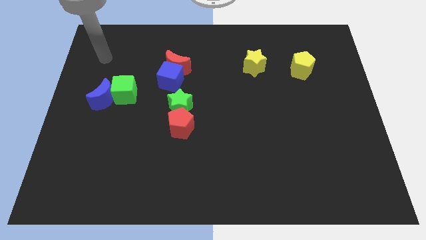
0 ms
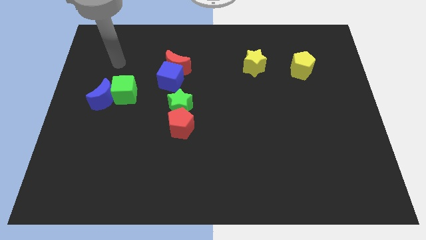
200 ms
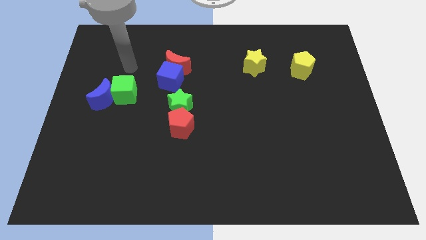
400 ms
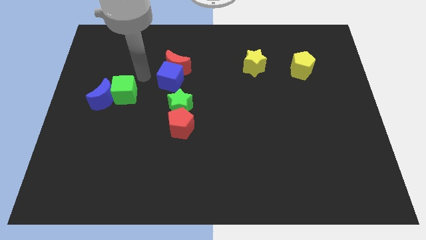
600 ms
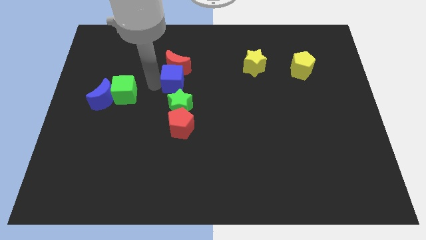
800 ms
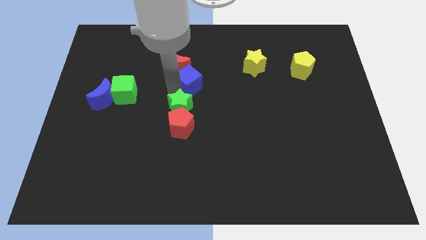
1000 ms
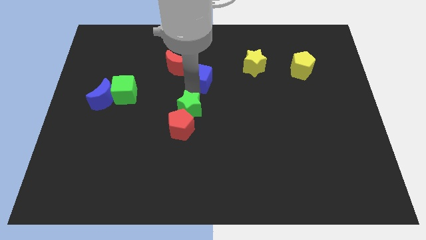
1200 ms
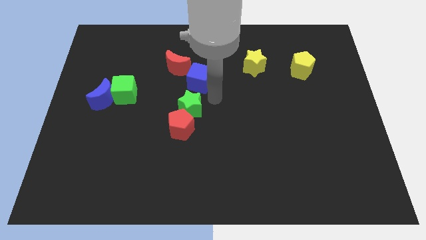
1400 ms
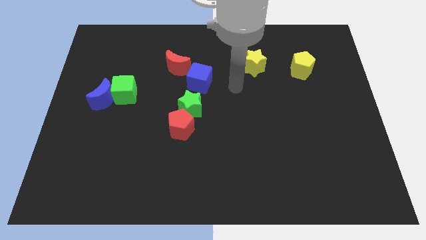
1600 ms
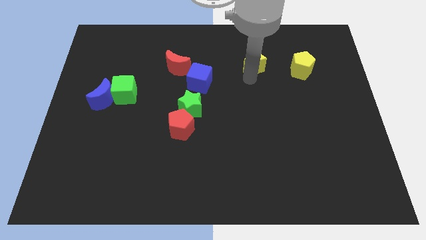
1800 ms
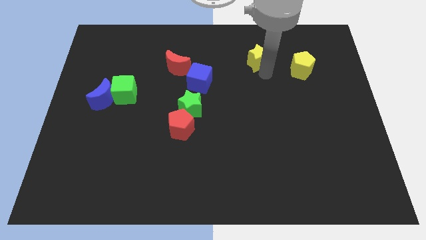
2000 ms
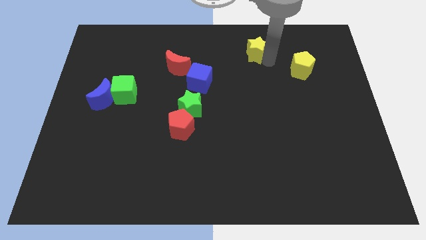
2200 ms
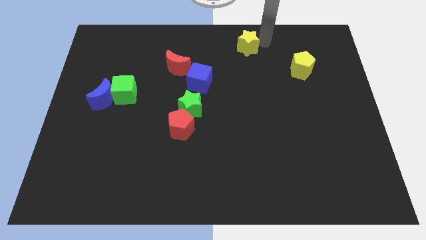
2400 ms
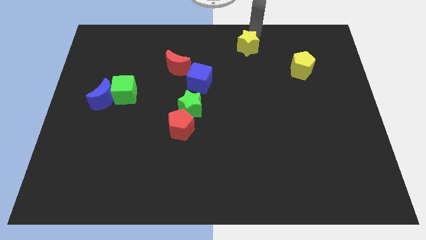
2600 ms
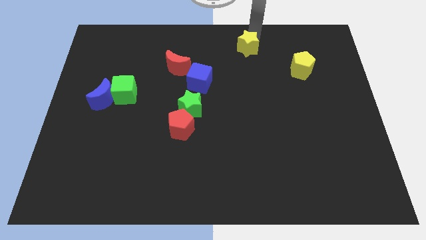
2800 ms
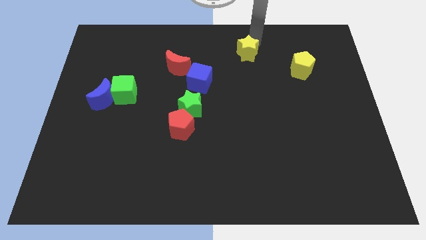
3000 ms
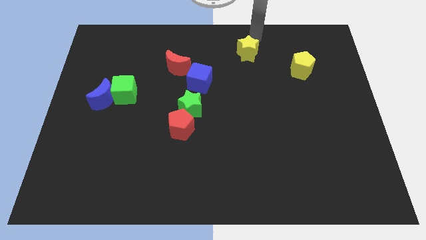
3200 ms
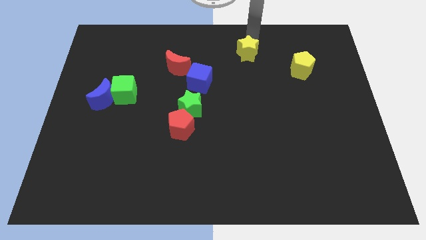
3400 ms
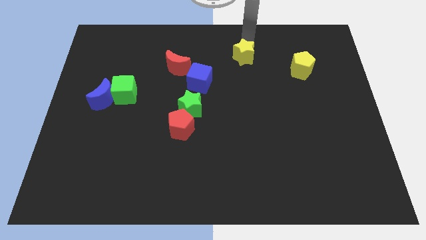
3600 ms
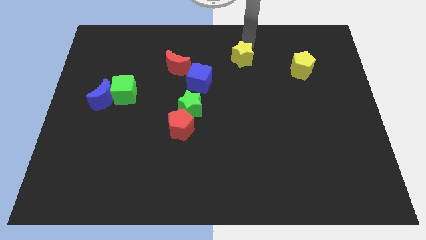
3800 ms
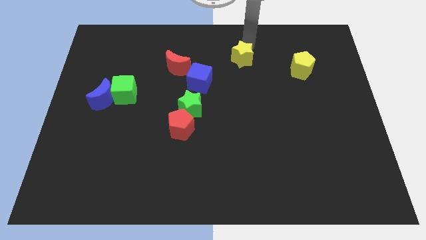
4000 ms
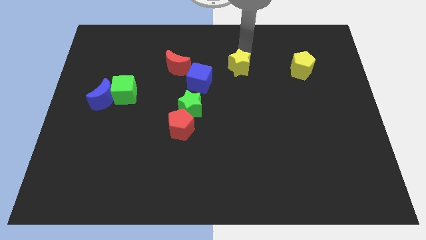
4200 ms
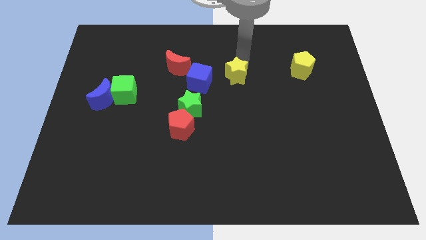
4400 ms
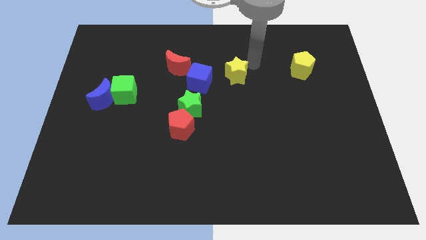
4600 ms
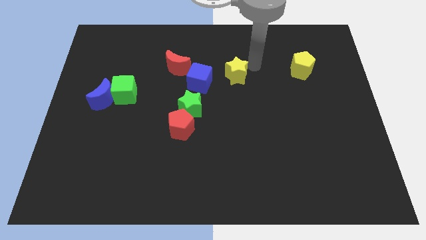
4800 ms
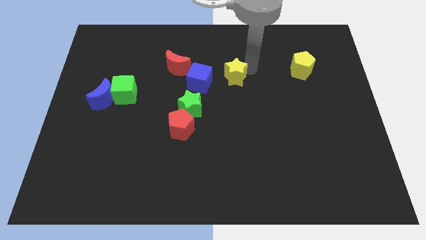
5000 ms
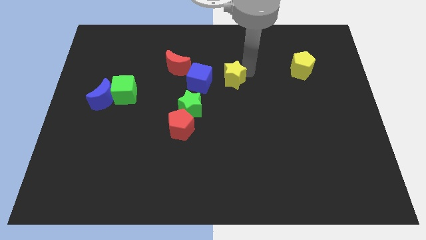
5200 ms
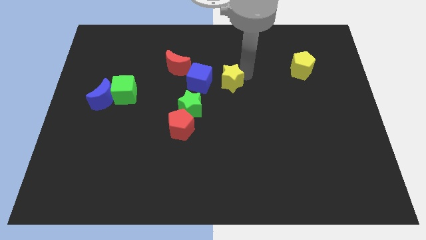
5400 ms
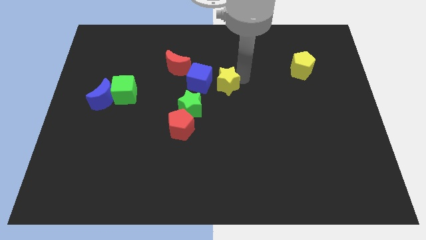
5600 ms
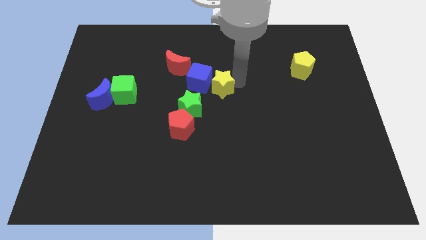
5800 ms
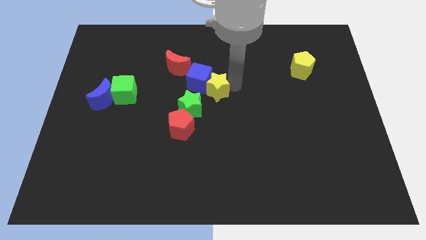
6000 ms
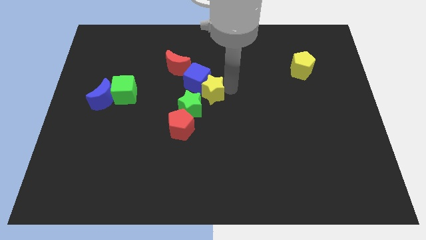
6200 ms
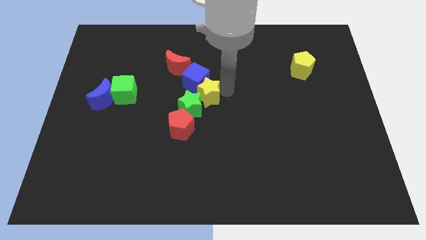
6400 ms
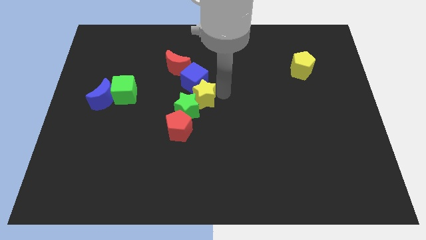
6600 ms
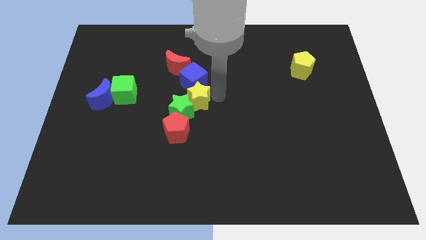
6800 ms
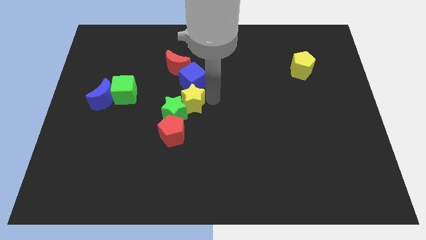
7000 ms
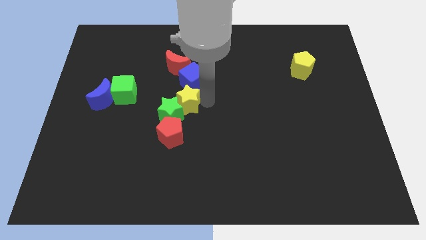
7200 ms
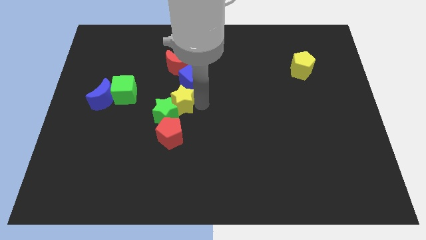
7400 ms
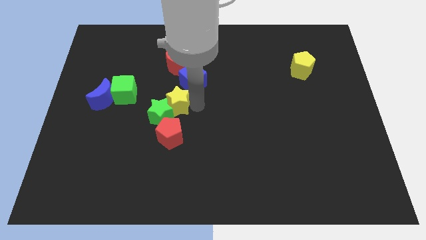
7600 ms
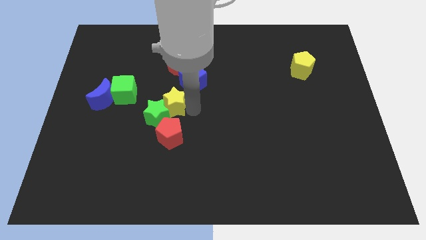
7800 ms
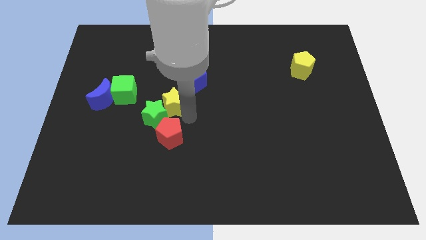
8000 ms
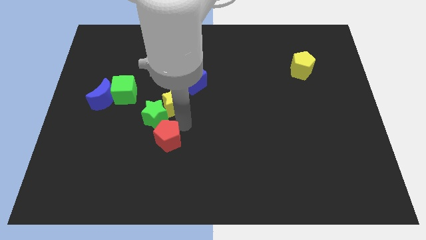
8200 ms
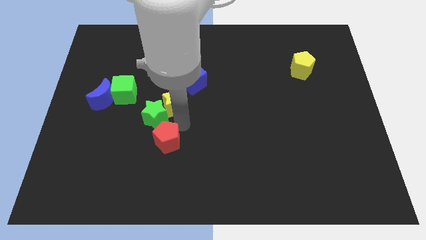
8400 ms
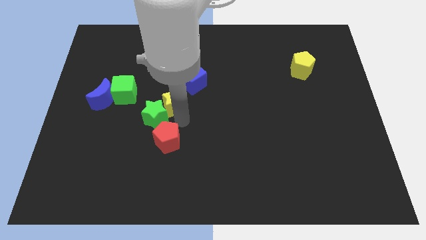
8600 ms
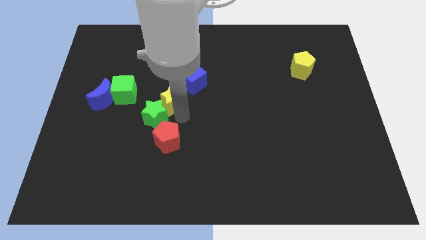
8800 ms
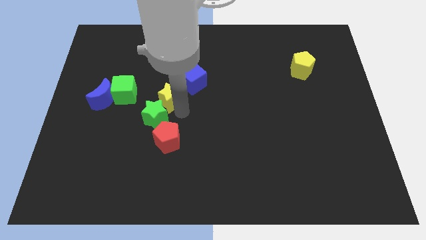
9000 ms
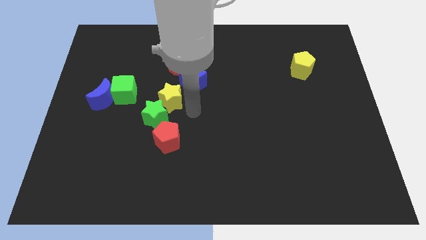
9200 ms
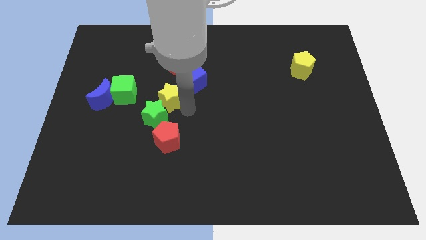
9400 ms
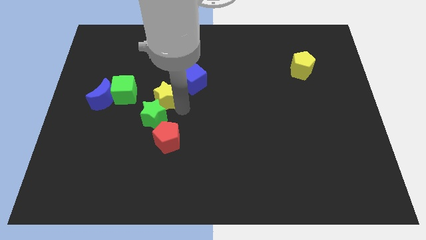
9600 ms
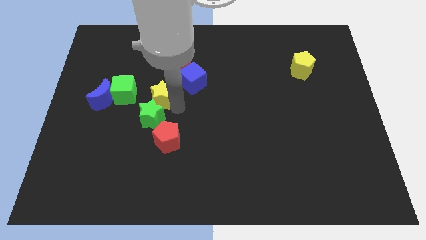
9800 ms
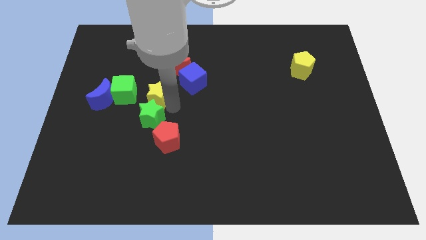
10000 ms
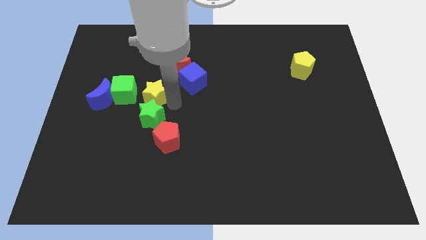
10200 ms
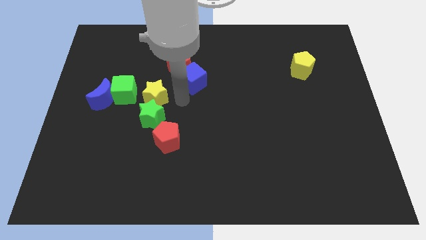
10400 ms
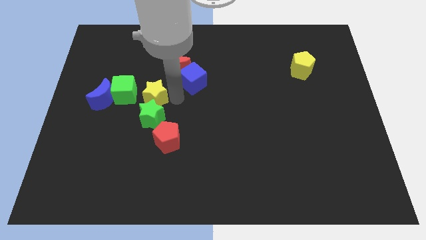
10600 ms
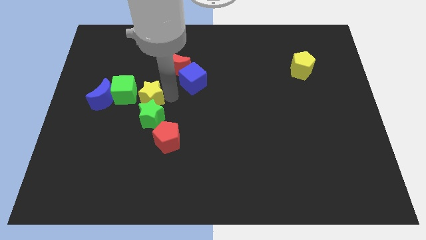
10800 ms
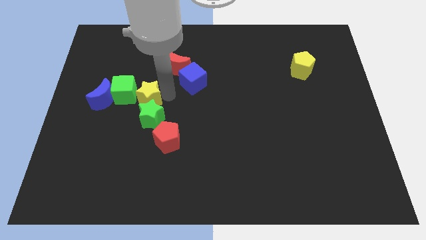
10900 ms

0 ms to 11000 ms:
slide the yellow star close to the green cube

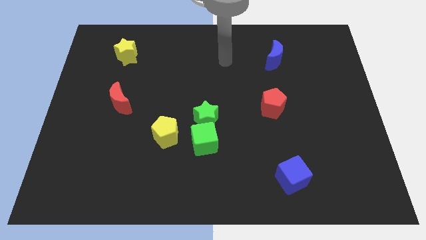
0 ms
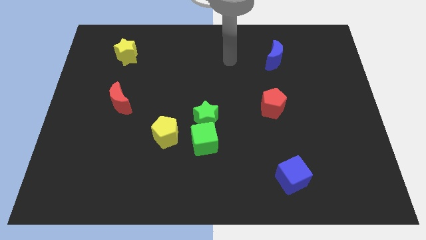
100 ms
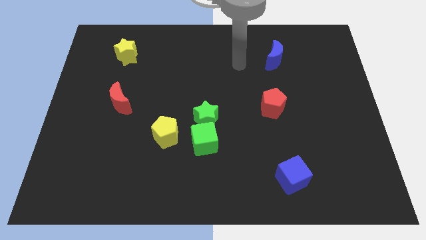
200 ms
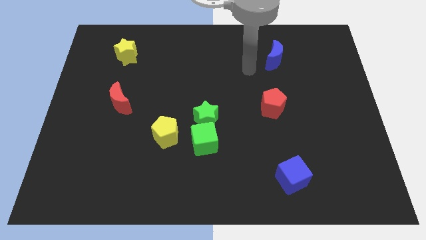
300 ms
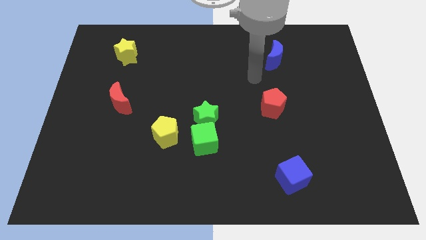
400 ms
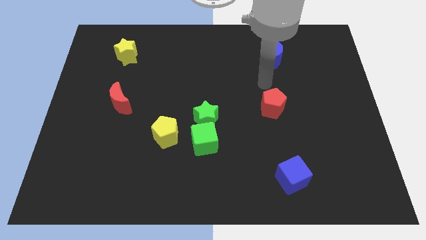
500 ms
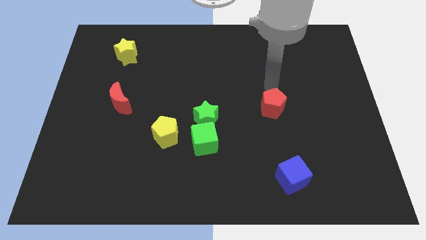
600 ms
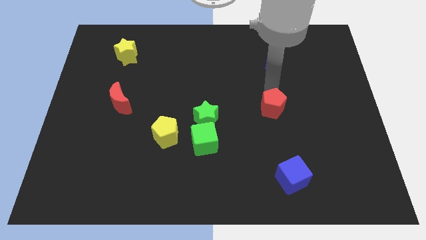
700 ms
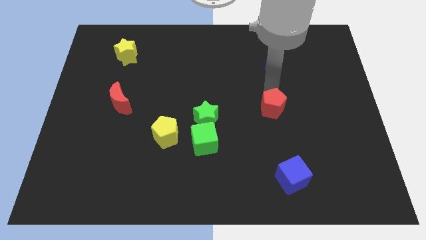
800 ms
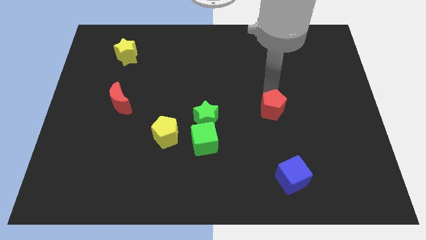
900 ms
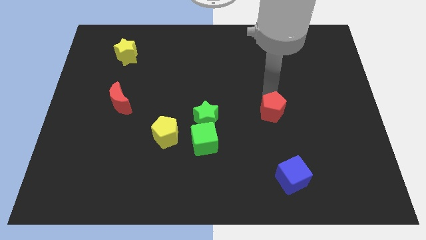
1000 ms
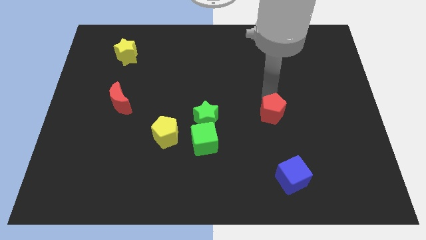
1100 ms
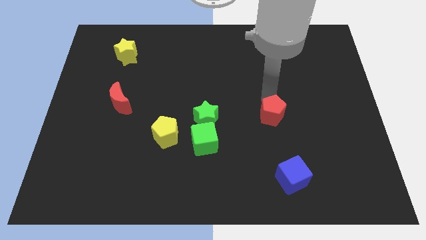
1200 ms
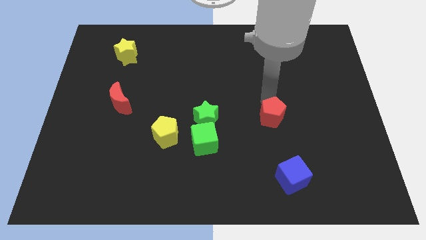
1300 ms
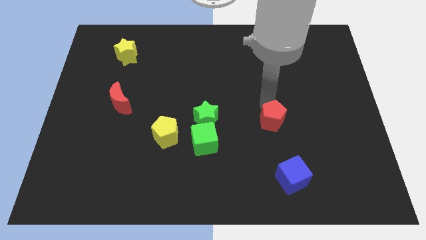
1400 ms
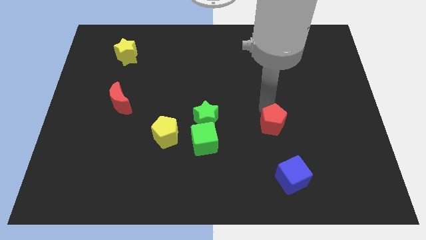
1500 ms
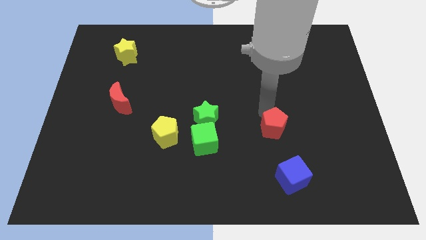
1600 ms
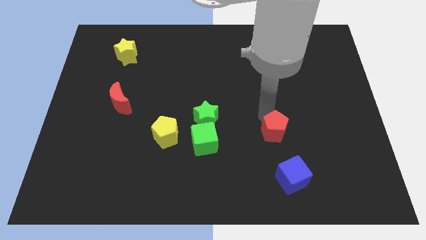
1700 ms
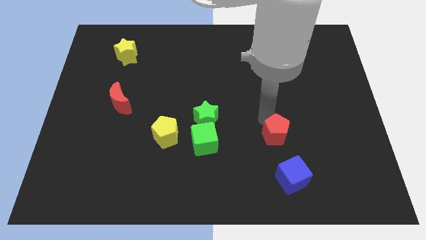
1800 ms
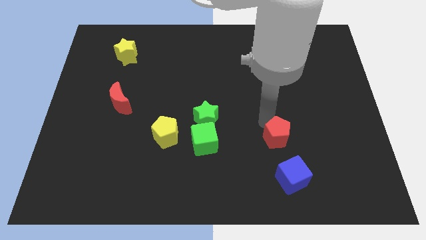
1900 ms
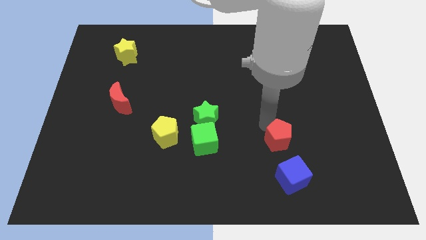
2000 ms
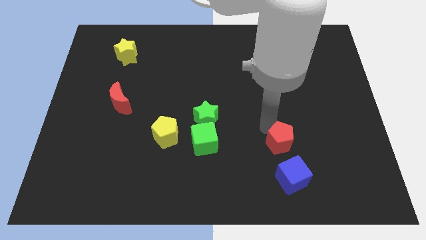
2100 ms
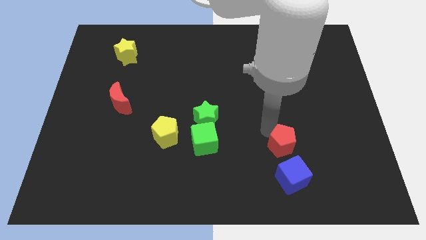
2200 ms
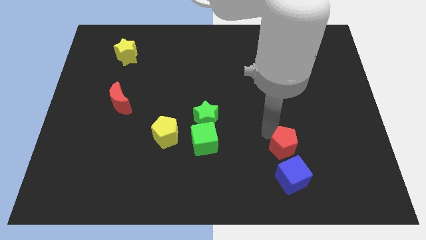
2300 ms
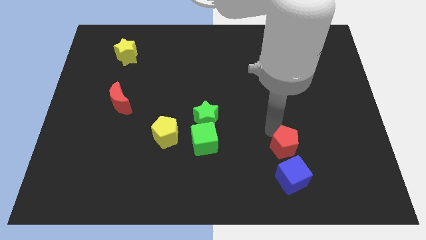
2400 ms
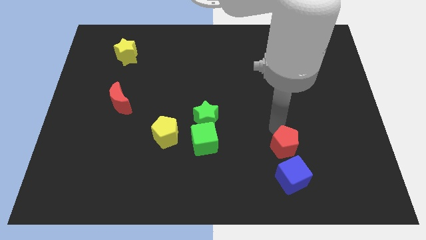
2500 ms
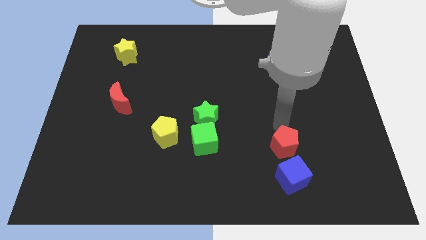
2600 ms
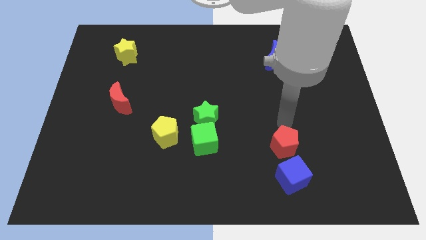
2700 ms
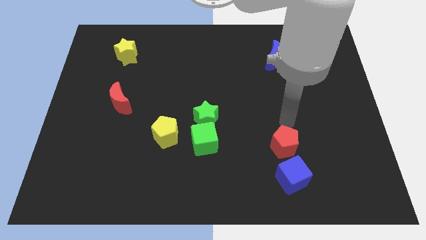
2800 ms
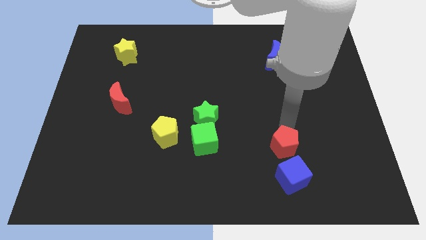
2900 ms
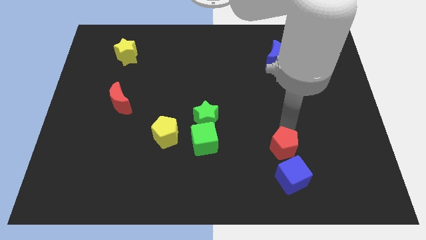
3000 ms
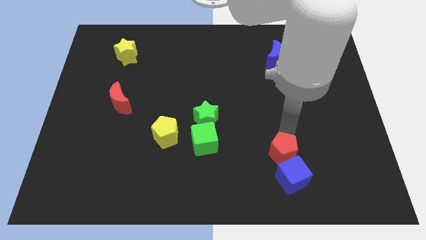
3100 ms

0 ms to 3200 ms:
push the red pentagon next to the blue cube
